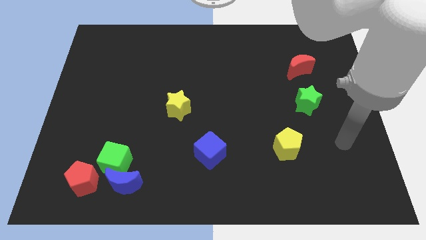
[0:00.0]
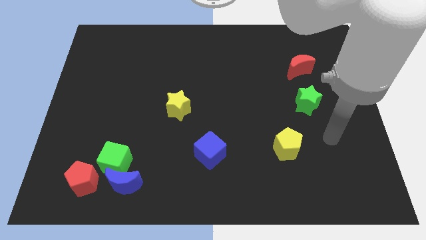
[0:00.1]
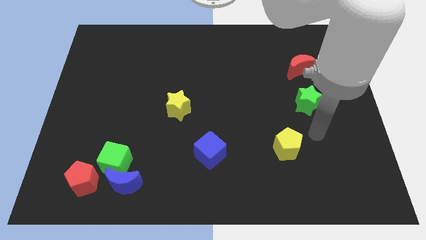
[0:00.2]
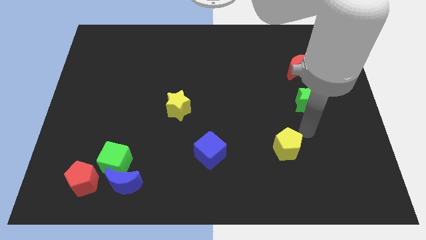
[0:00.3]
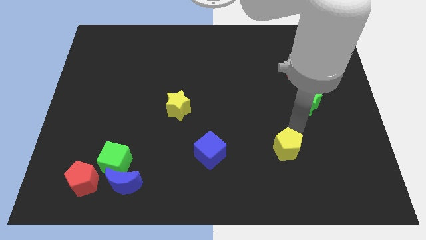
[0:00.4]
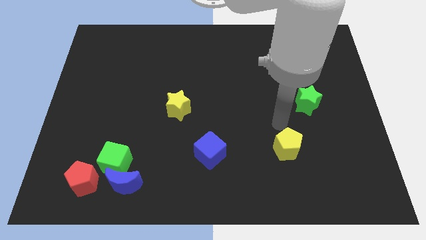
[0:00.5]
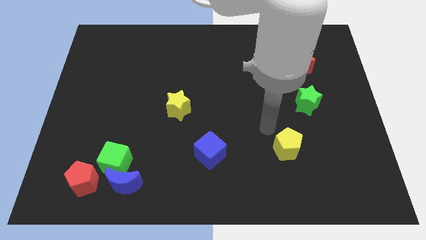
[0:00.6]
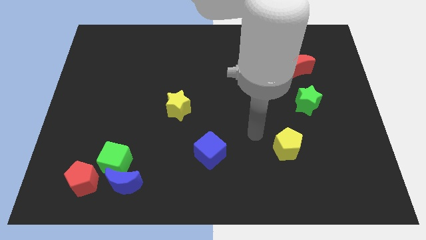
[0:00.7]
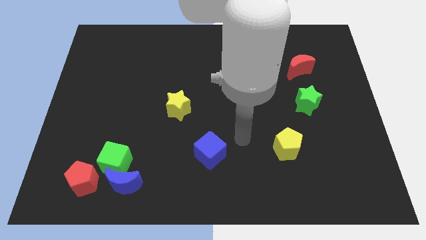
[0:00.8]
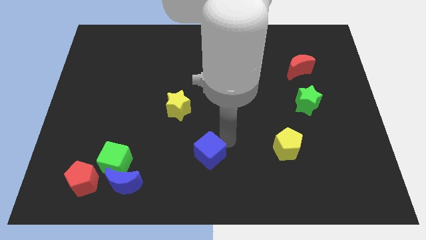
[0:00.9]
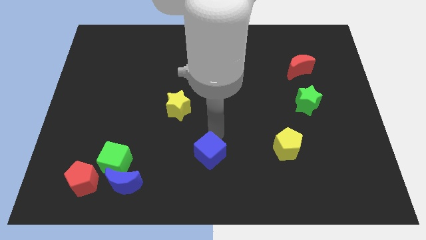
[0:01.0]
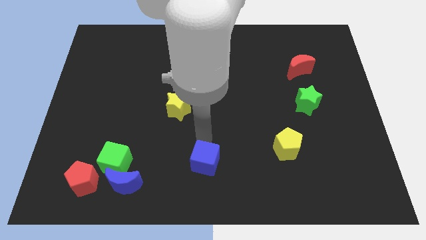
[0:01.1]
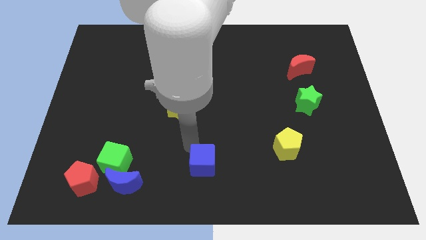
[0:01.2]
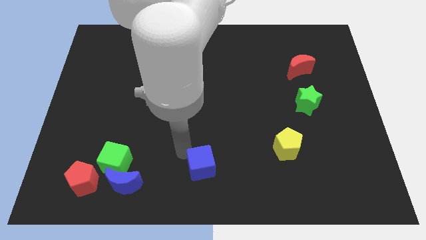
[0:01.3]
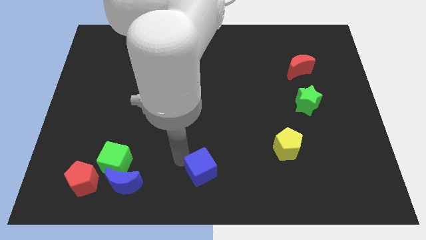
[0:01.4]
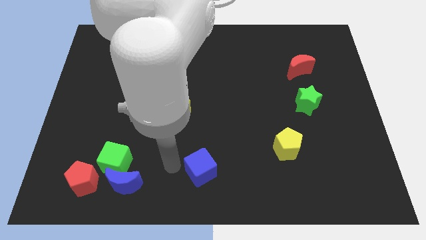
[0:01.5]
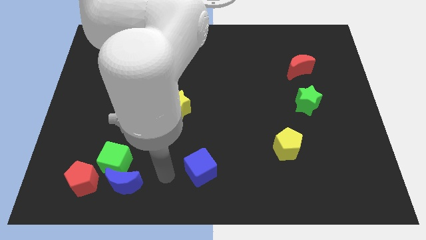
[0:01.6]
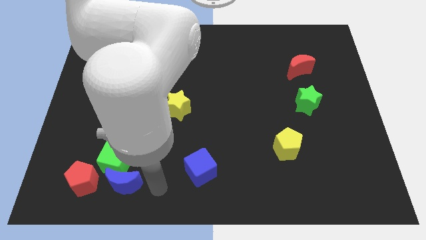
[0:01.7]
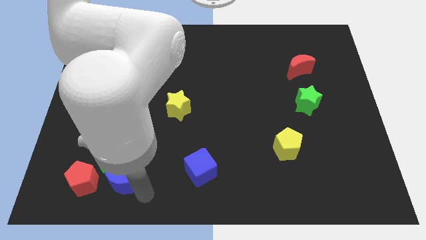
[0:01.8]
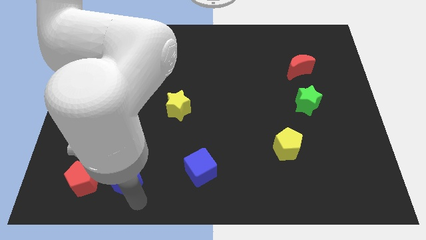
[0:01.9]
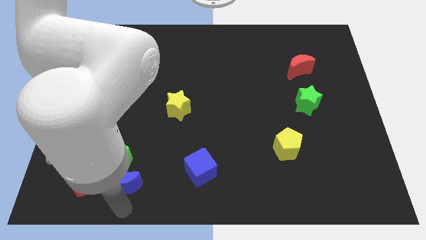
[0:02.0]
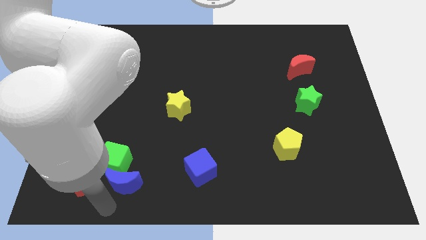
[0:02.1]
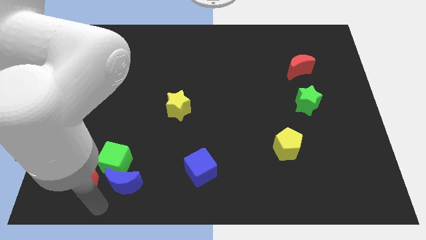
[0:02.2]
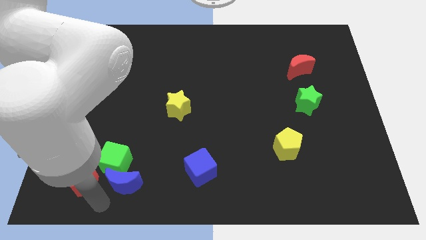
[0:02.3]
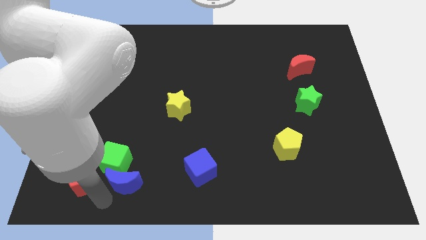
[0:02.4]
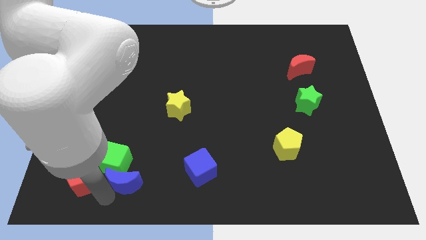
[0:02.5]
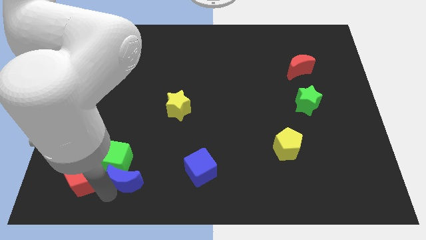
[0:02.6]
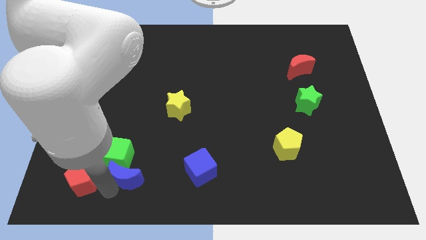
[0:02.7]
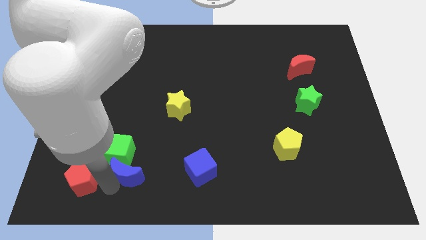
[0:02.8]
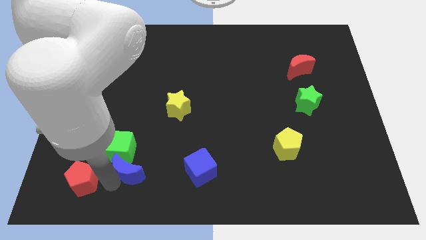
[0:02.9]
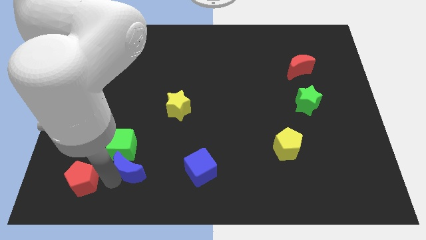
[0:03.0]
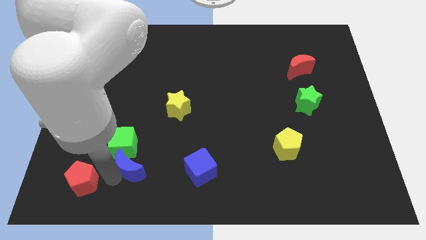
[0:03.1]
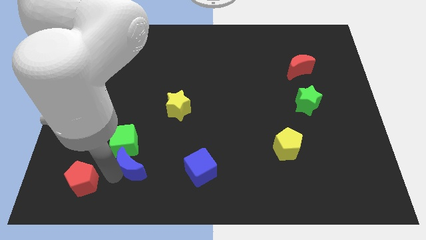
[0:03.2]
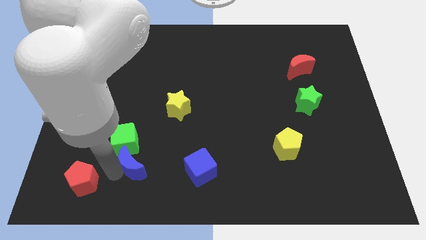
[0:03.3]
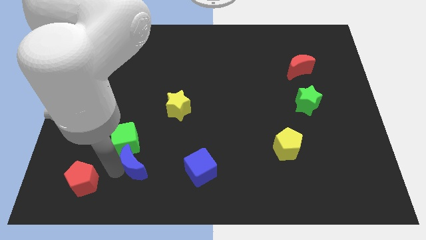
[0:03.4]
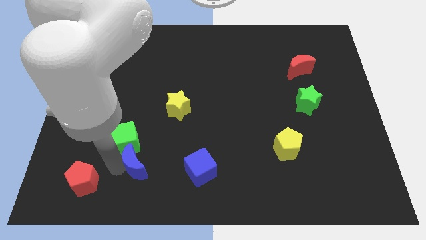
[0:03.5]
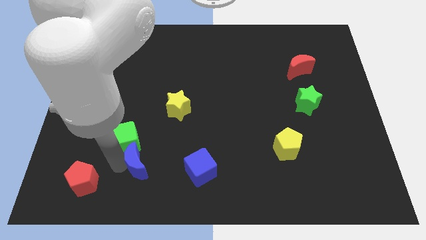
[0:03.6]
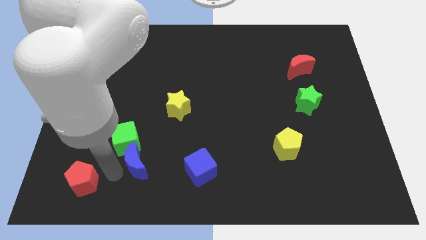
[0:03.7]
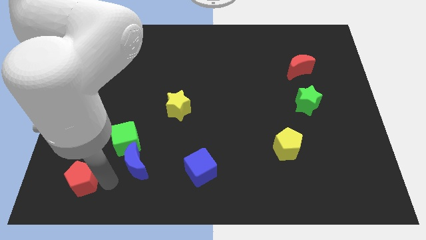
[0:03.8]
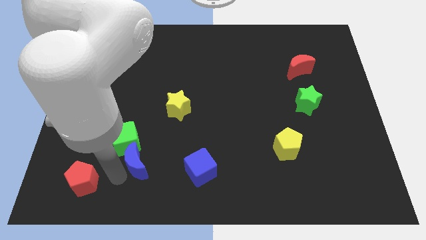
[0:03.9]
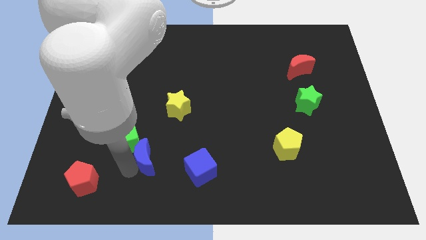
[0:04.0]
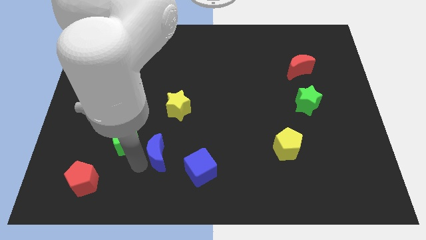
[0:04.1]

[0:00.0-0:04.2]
slide the blue moon upwards and then right a bit

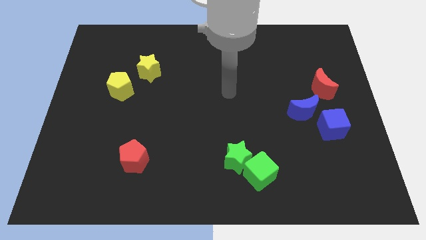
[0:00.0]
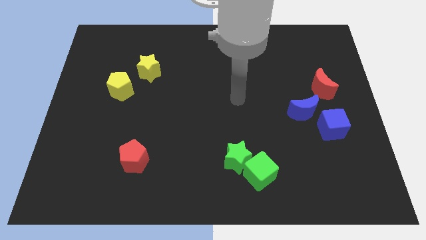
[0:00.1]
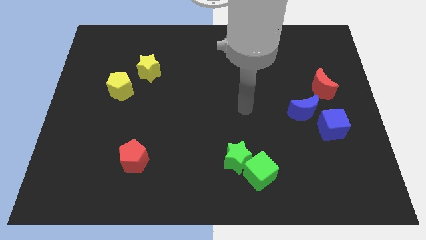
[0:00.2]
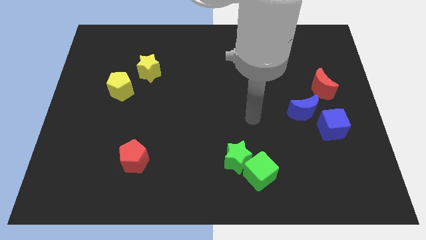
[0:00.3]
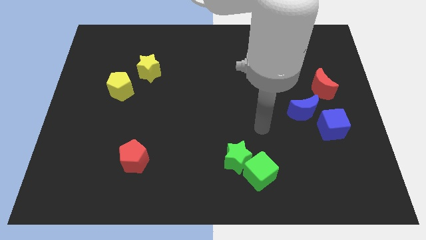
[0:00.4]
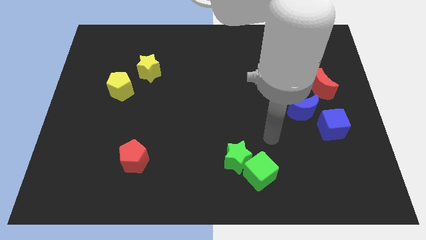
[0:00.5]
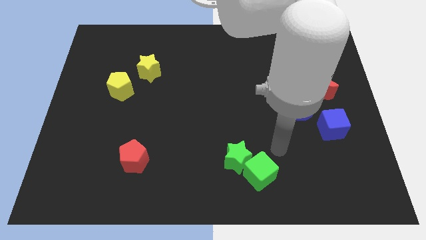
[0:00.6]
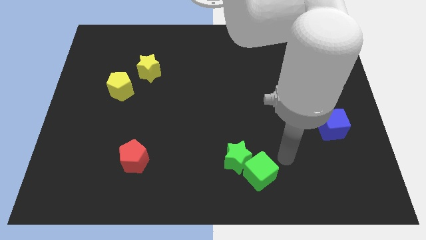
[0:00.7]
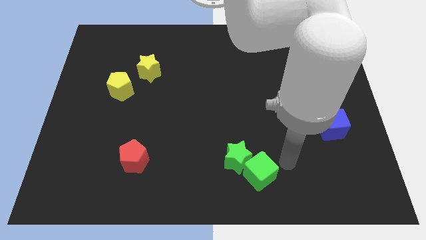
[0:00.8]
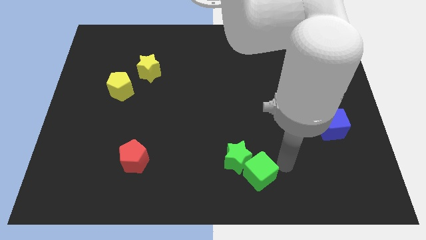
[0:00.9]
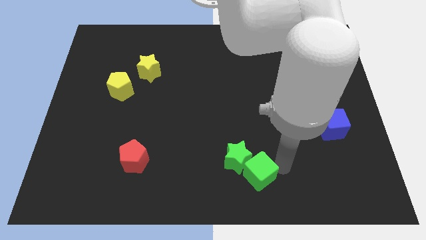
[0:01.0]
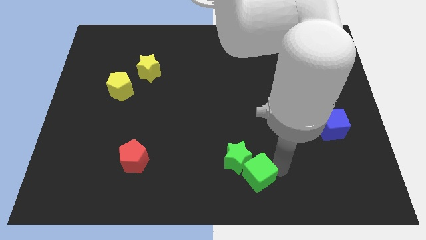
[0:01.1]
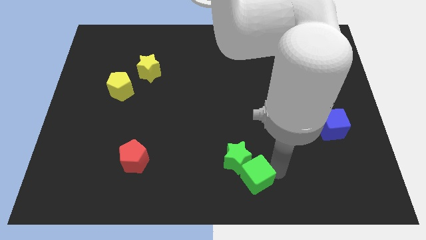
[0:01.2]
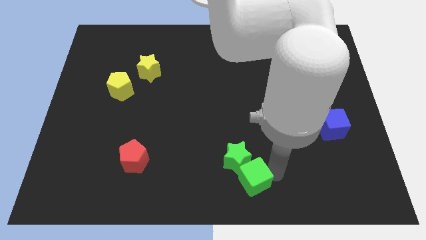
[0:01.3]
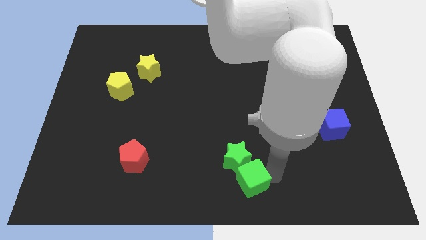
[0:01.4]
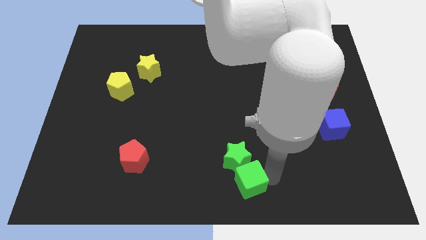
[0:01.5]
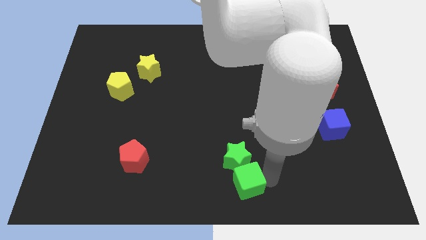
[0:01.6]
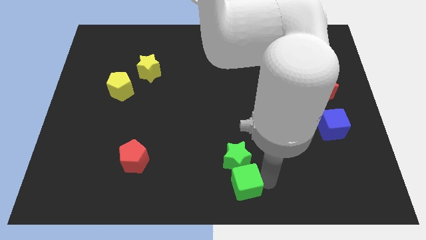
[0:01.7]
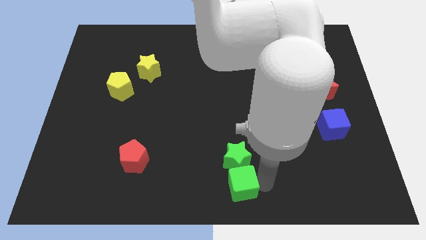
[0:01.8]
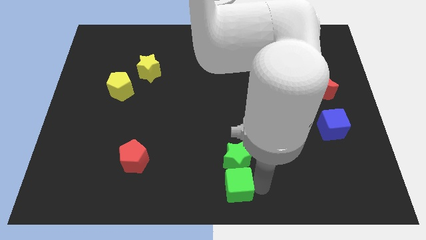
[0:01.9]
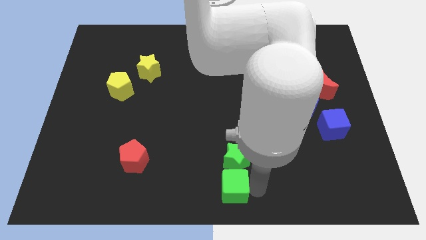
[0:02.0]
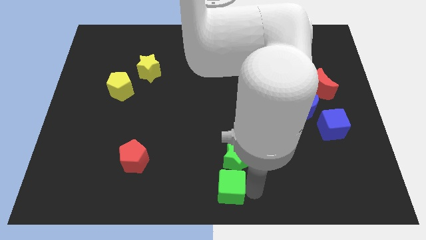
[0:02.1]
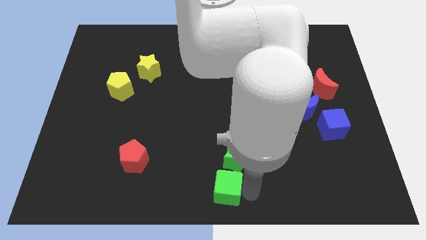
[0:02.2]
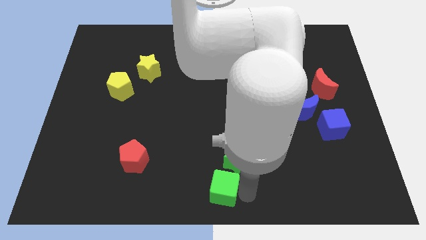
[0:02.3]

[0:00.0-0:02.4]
move the green cube left slightly

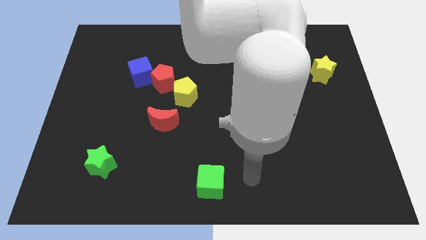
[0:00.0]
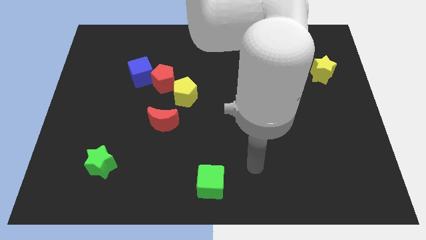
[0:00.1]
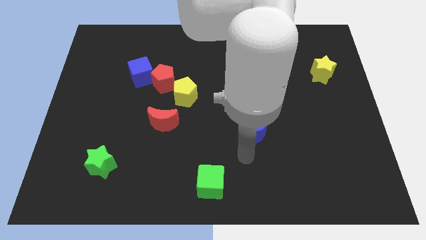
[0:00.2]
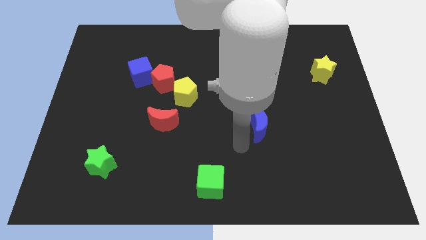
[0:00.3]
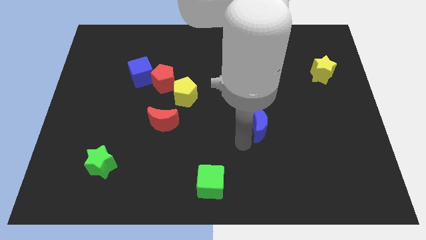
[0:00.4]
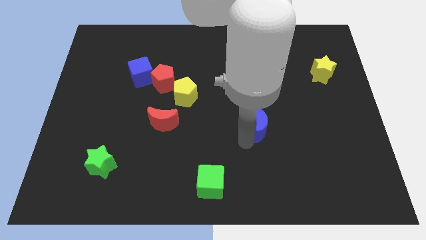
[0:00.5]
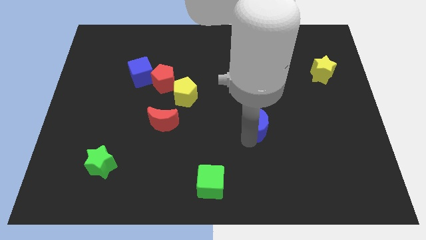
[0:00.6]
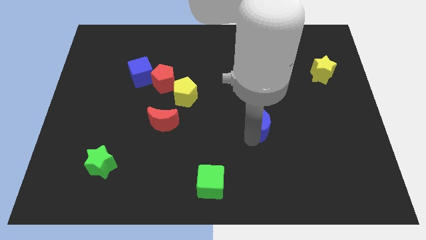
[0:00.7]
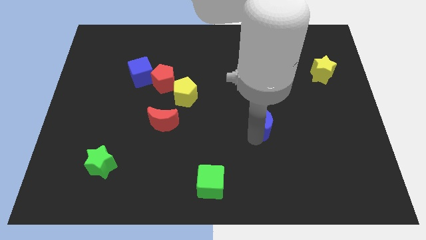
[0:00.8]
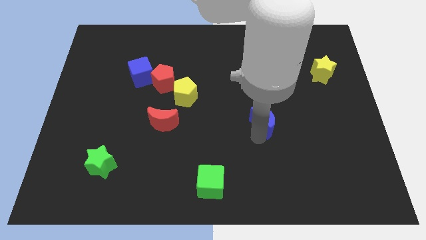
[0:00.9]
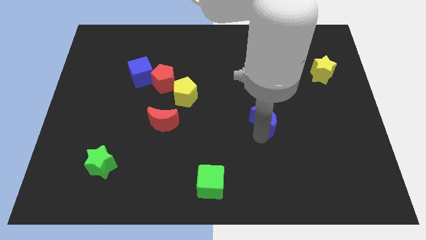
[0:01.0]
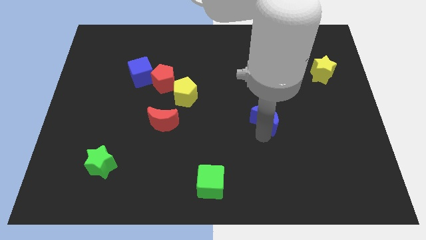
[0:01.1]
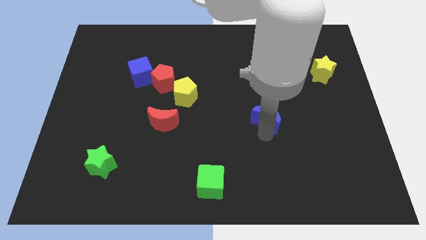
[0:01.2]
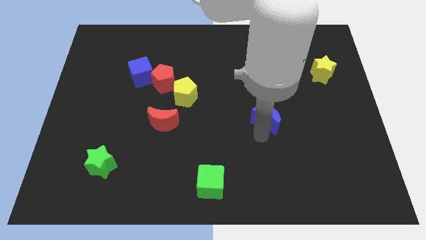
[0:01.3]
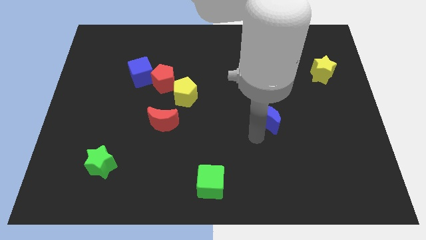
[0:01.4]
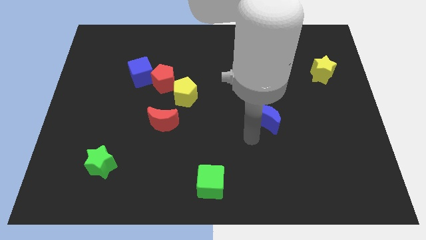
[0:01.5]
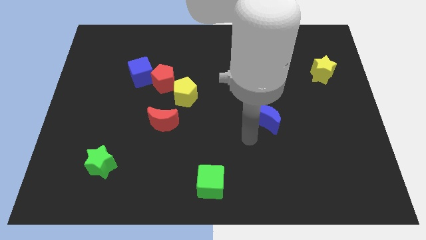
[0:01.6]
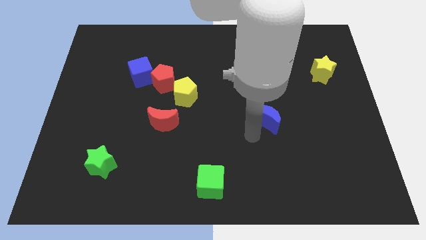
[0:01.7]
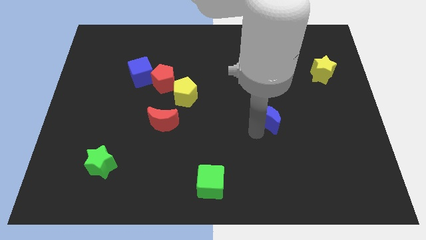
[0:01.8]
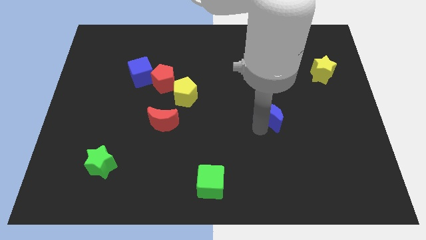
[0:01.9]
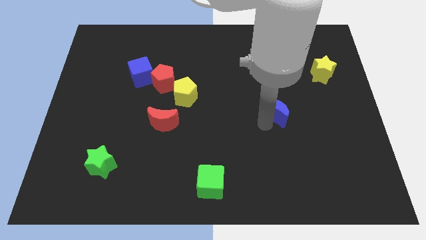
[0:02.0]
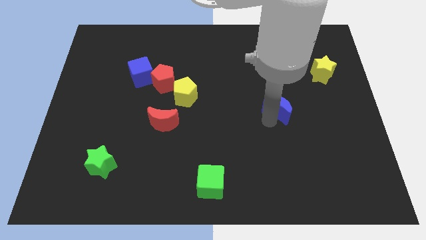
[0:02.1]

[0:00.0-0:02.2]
slide the blue moon slightly up and then right
